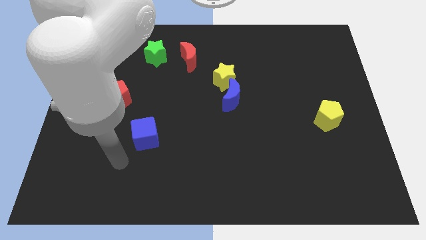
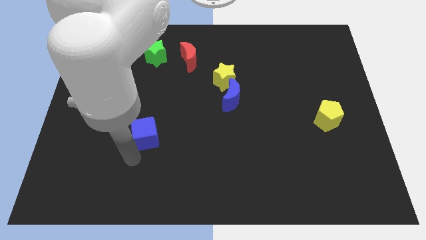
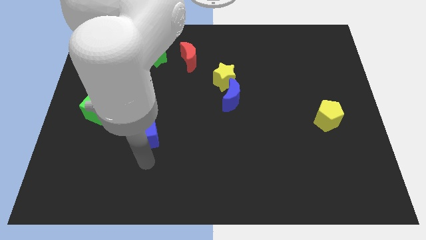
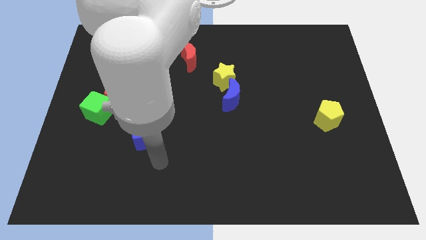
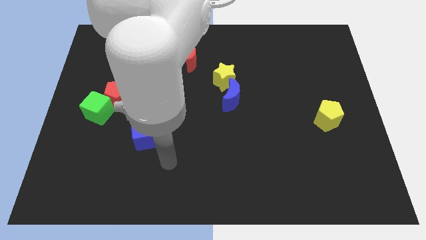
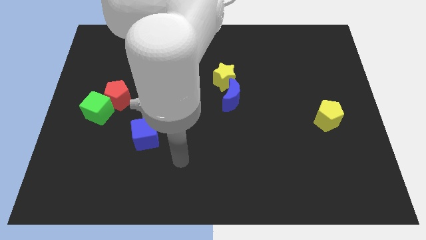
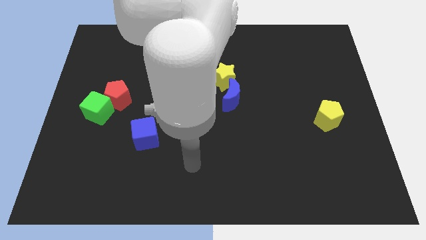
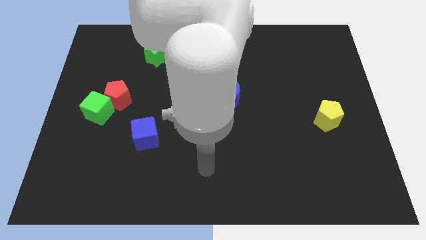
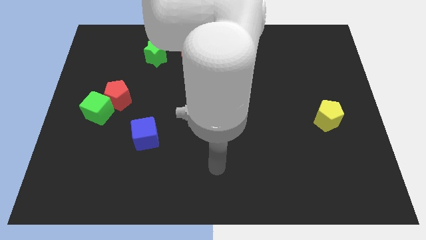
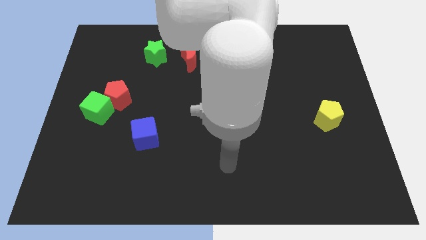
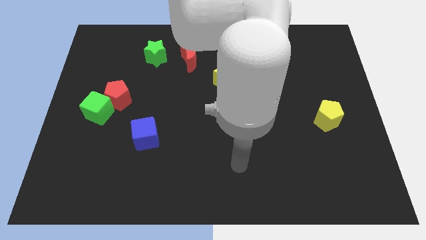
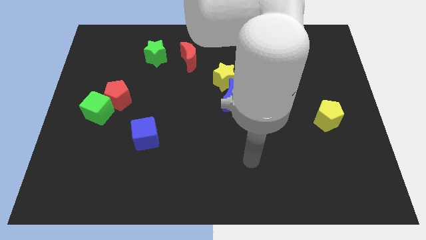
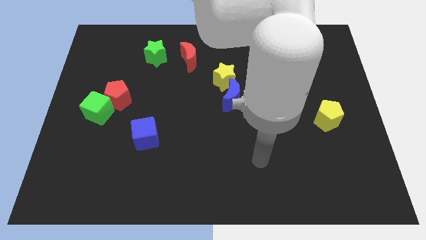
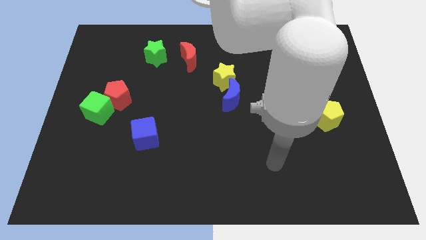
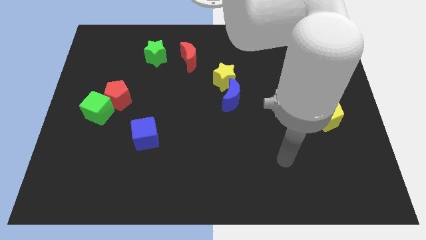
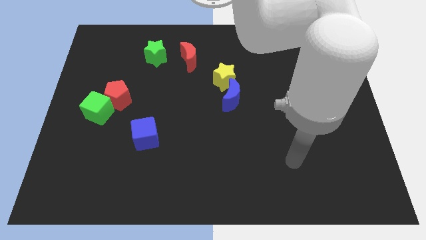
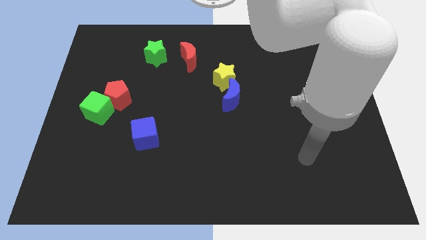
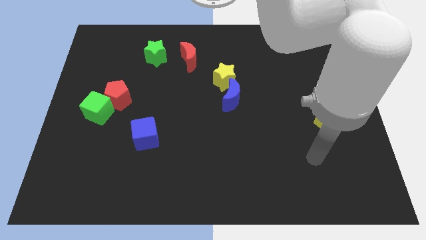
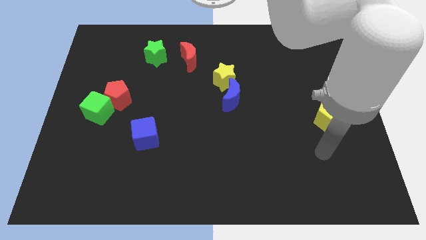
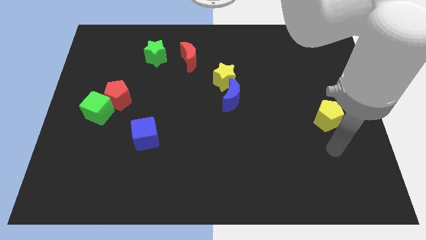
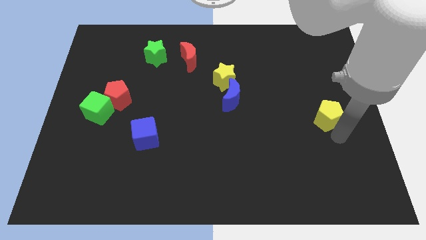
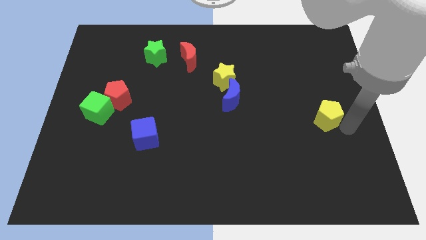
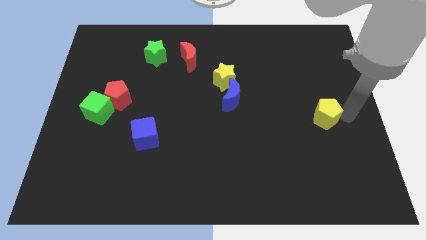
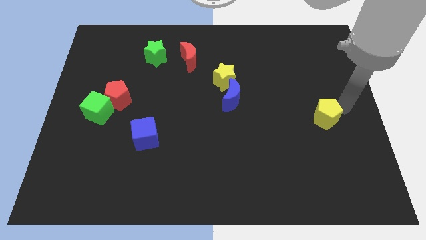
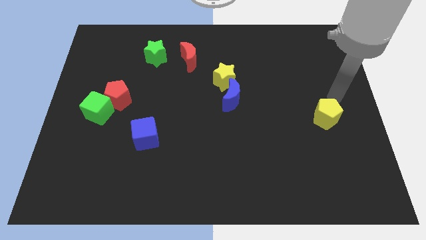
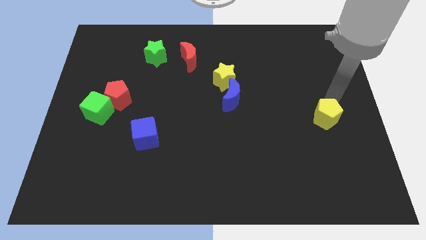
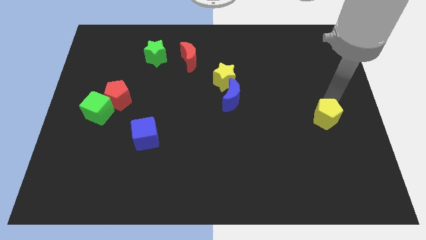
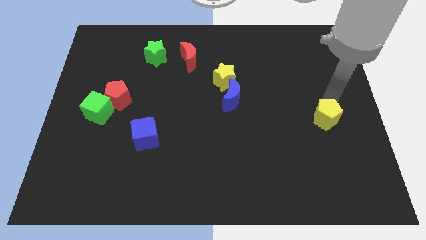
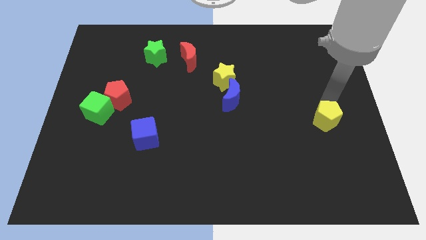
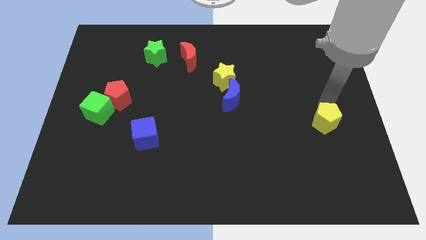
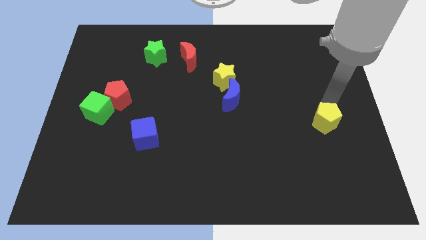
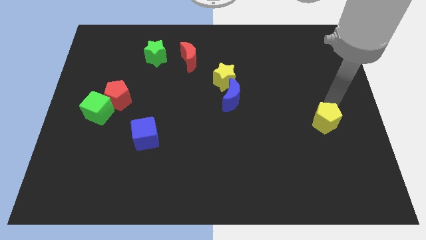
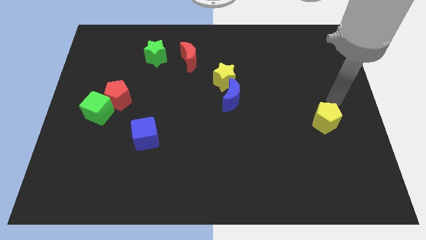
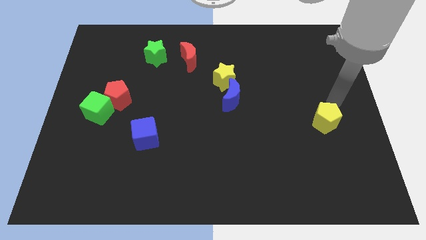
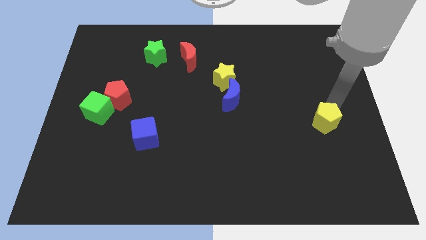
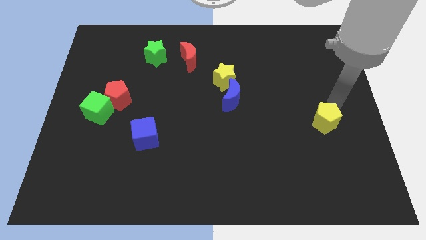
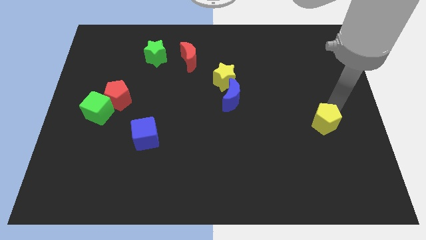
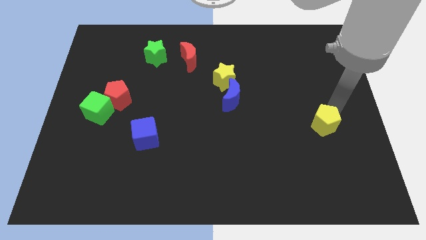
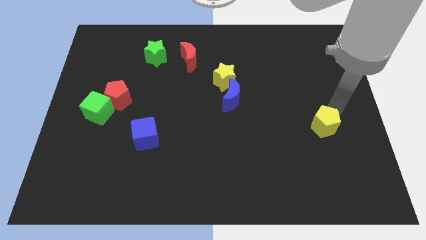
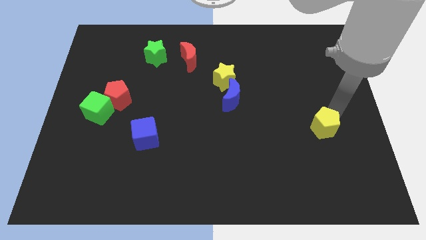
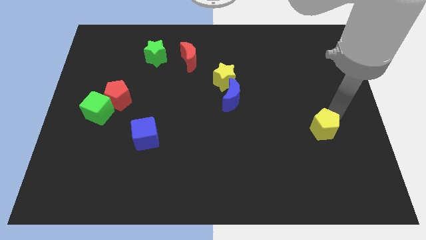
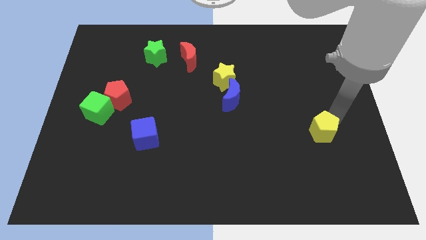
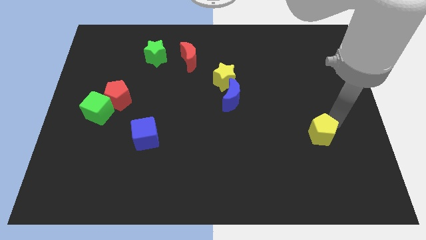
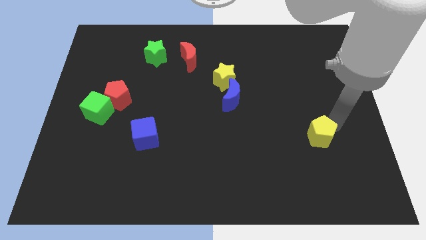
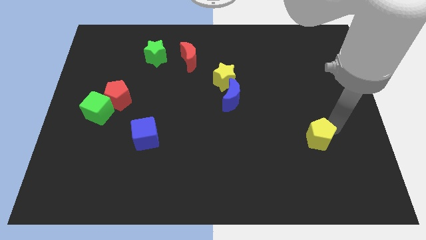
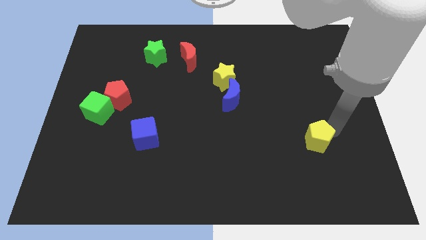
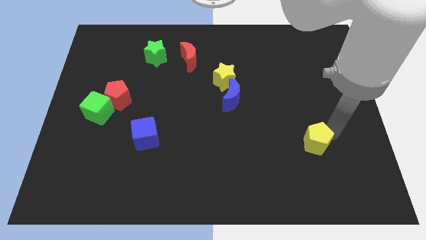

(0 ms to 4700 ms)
move the yellow pentagon a bit diagonally down and left

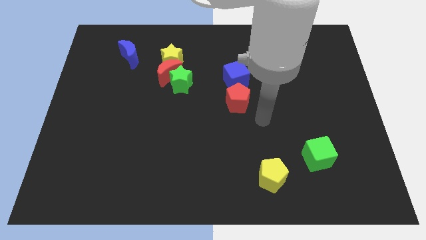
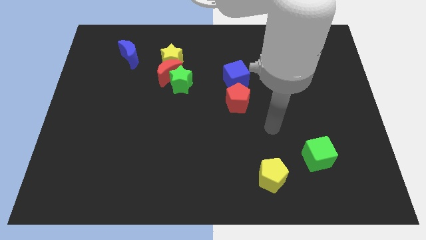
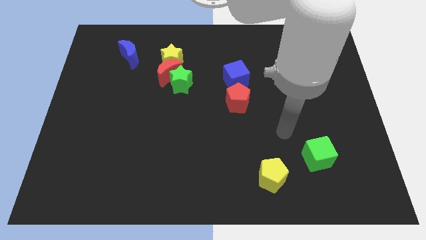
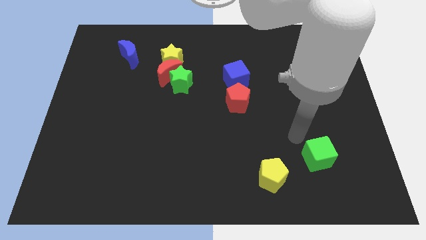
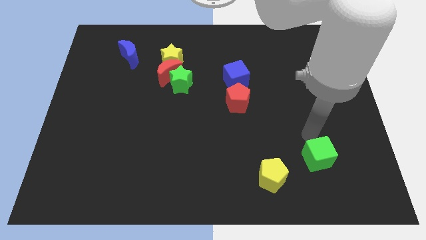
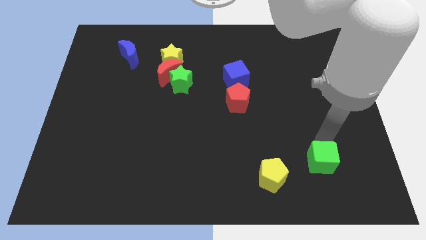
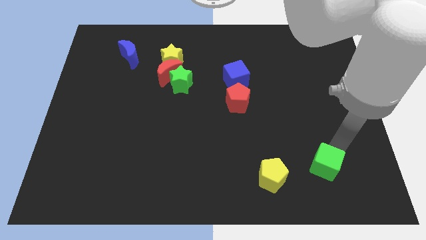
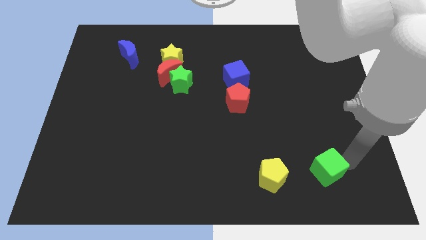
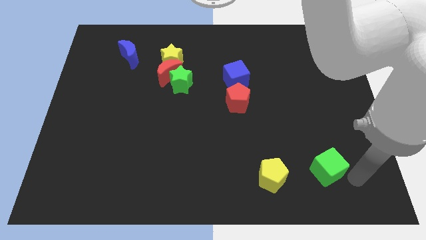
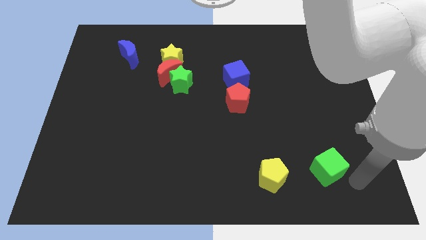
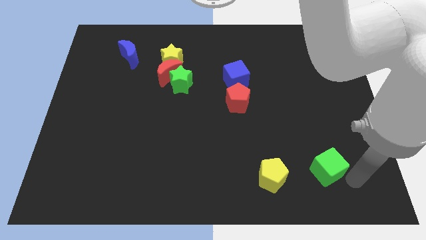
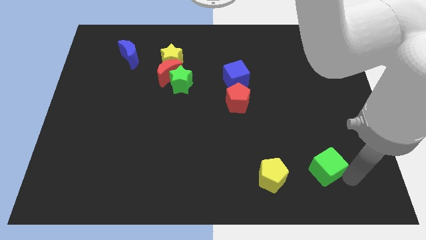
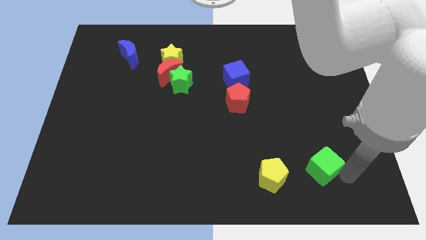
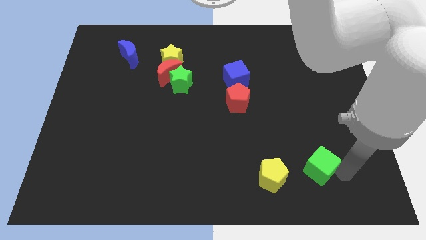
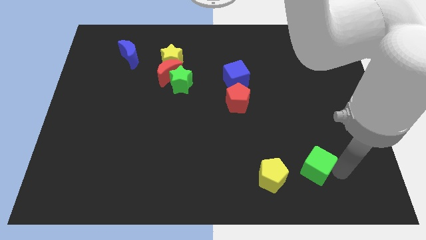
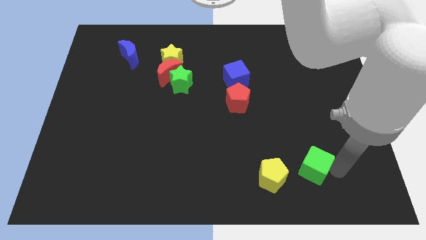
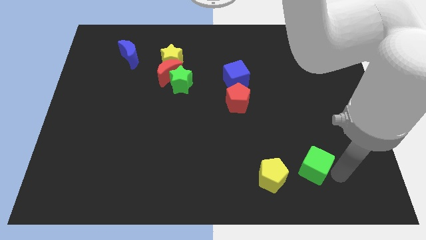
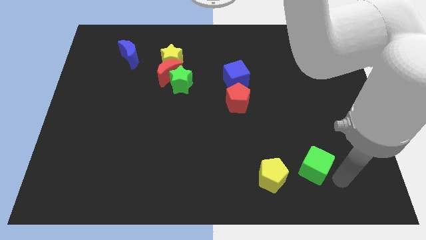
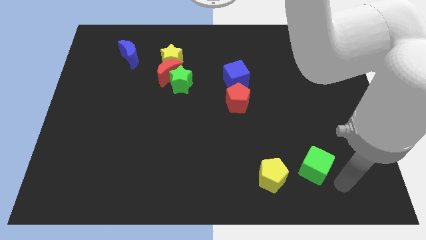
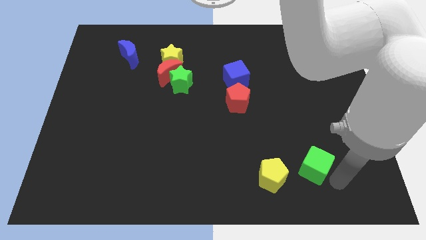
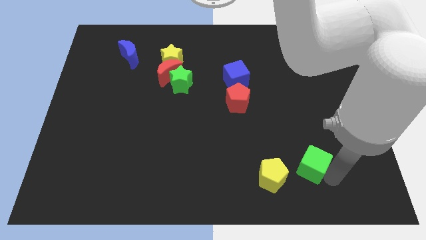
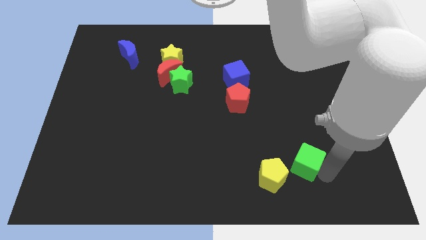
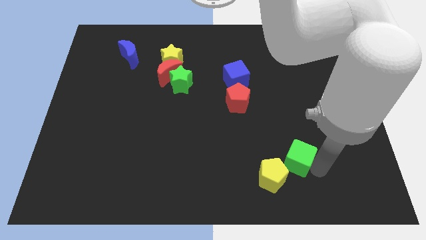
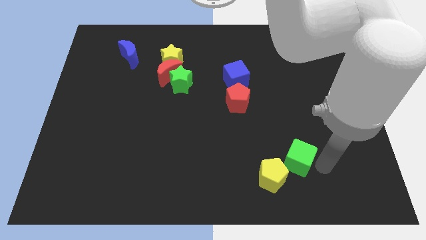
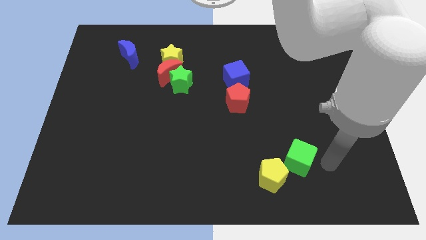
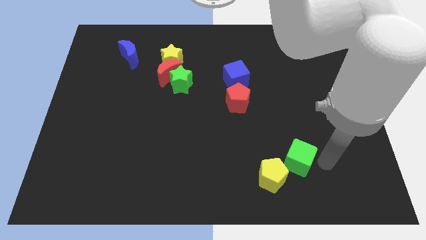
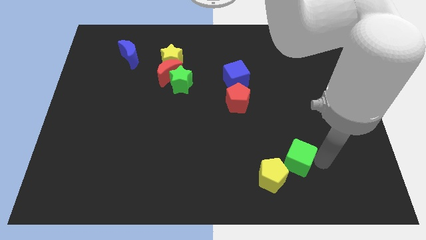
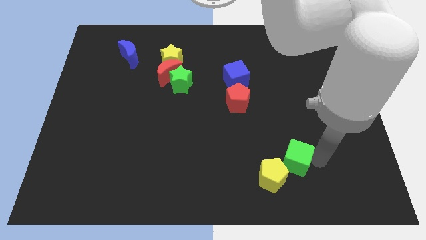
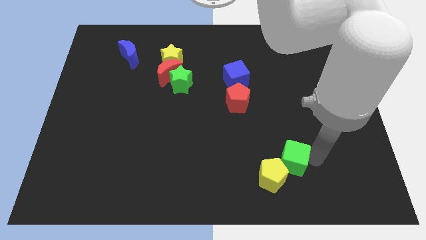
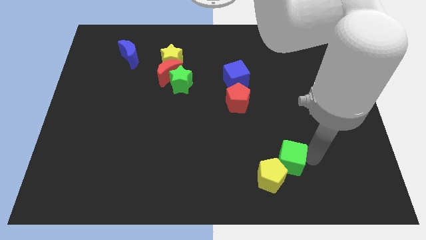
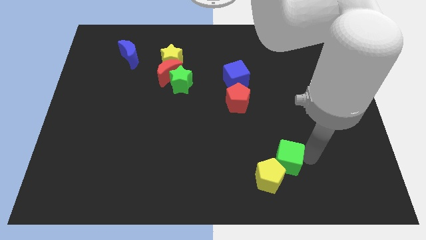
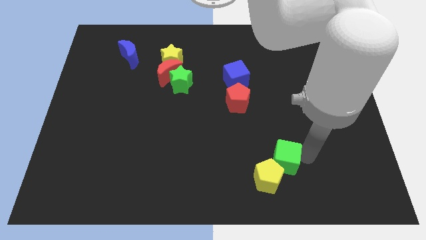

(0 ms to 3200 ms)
move the green cube a little left
